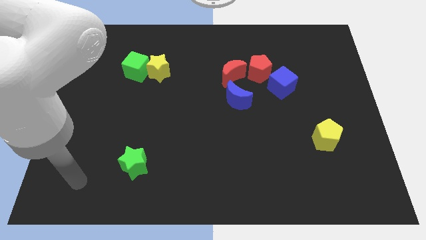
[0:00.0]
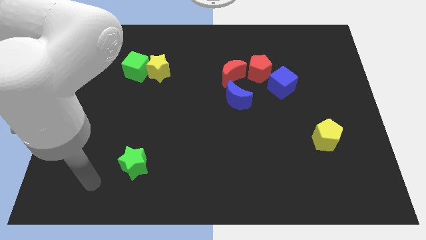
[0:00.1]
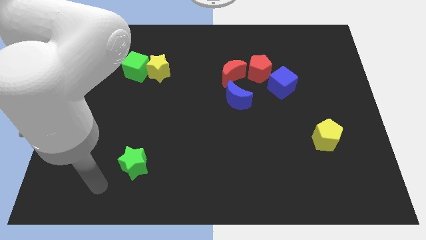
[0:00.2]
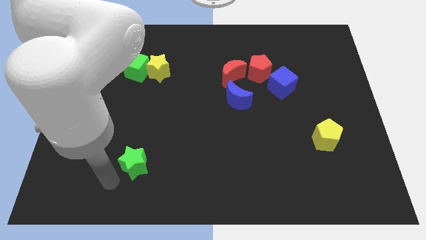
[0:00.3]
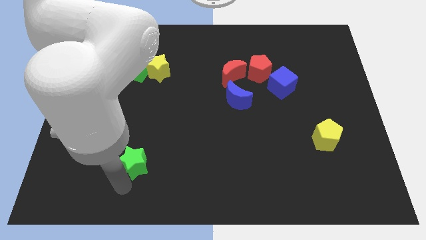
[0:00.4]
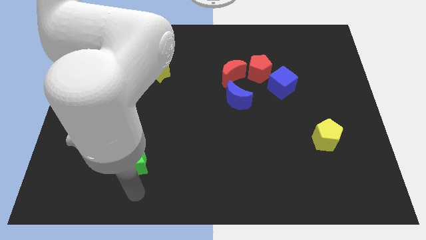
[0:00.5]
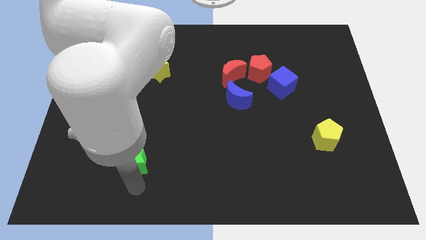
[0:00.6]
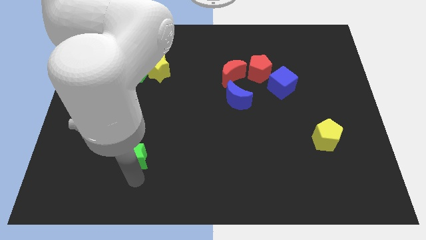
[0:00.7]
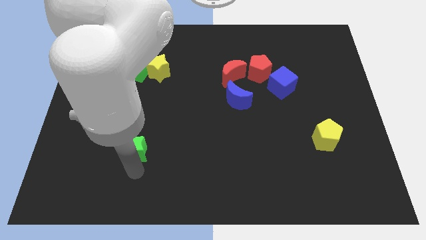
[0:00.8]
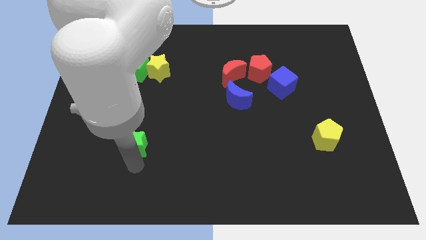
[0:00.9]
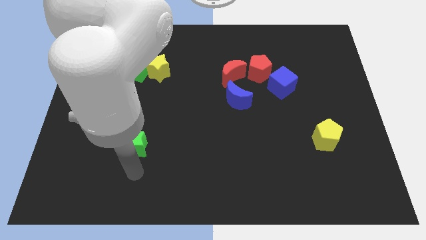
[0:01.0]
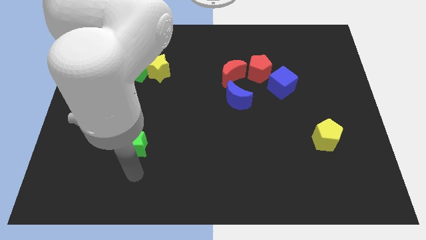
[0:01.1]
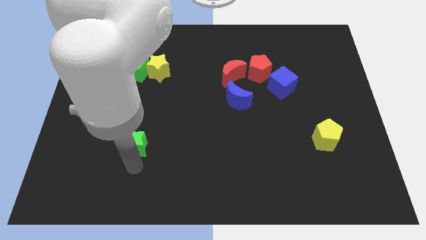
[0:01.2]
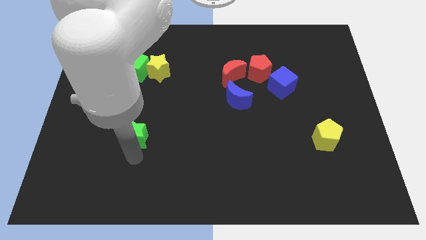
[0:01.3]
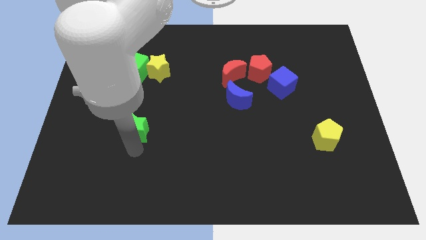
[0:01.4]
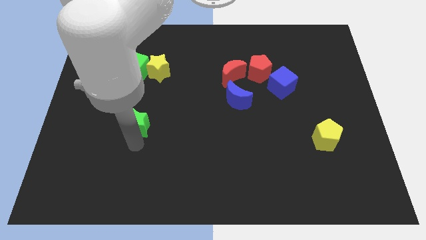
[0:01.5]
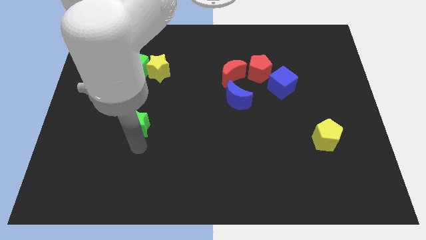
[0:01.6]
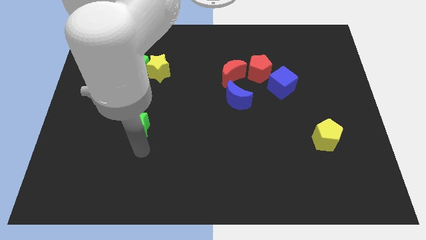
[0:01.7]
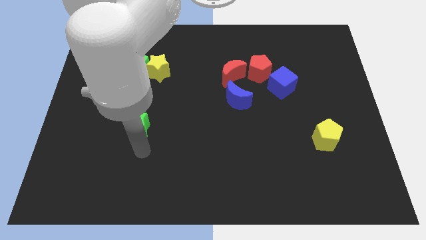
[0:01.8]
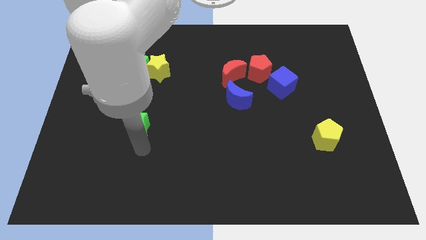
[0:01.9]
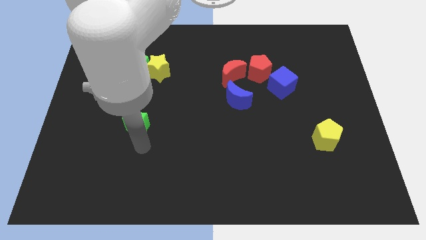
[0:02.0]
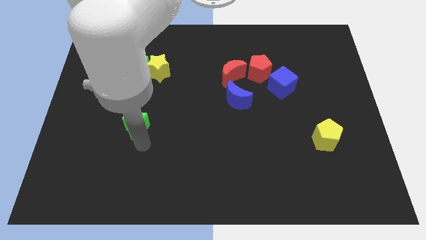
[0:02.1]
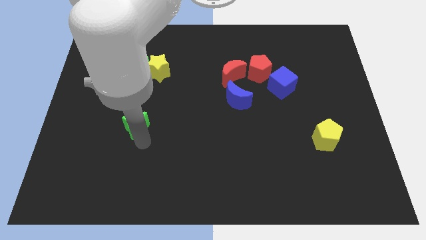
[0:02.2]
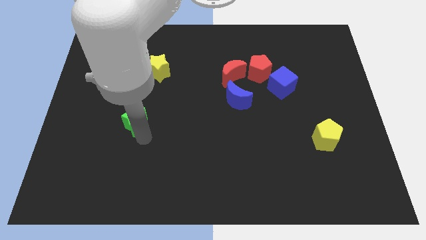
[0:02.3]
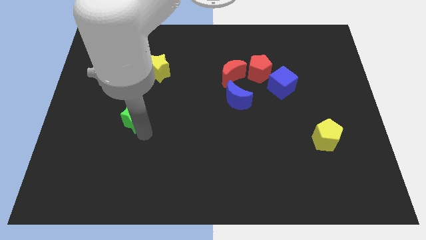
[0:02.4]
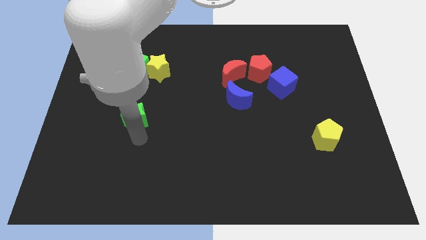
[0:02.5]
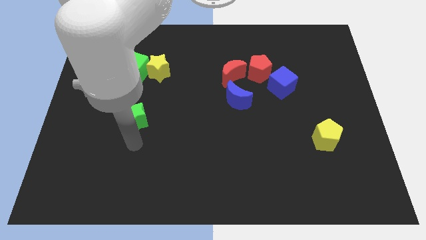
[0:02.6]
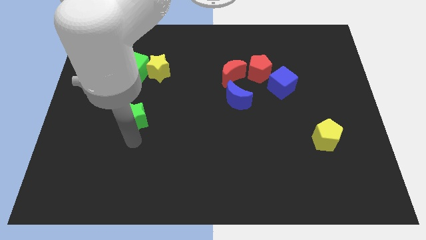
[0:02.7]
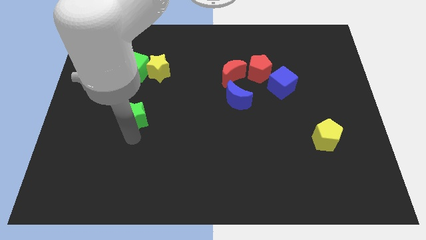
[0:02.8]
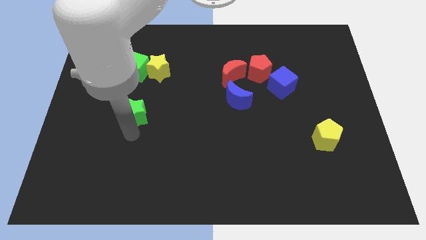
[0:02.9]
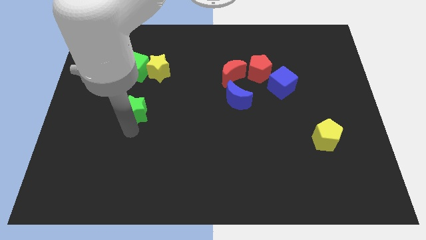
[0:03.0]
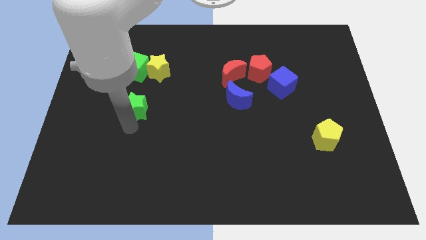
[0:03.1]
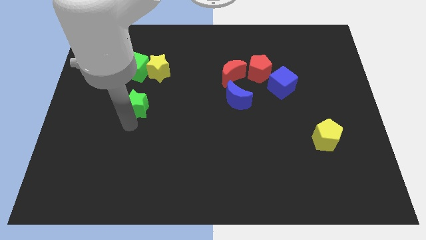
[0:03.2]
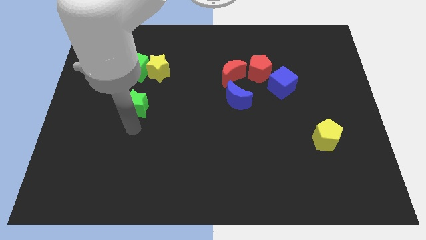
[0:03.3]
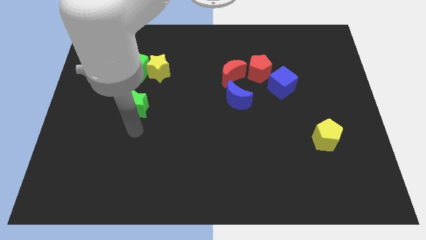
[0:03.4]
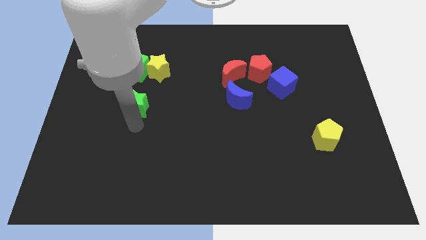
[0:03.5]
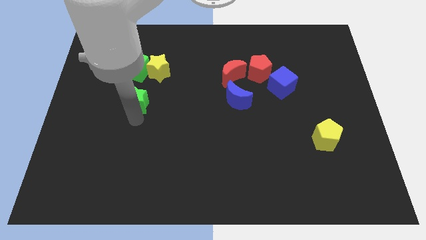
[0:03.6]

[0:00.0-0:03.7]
push the green star to the bottom left side of the yellow star

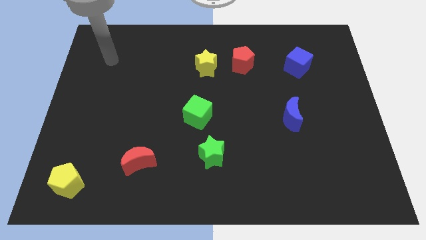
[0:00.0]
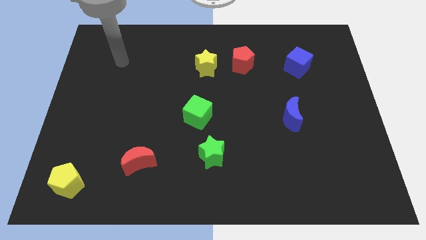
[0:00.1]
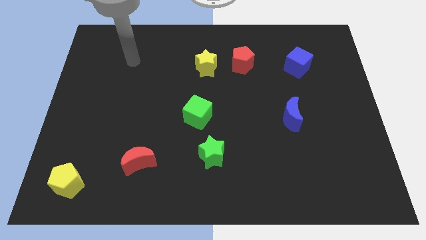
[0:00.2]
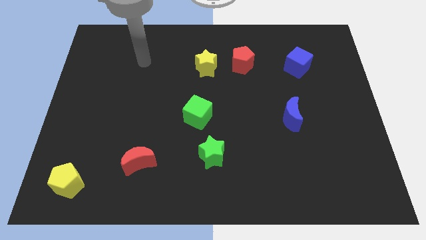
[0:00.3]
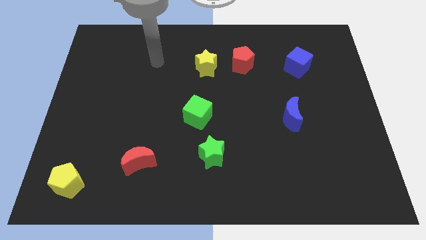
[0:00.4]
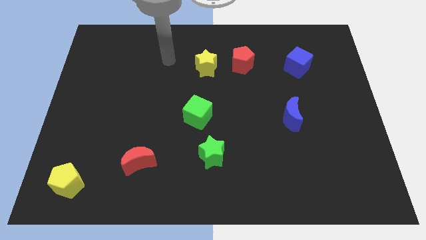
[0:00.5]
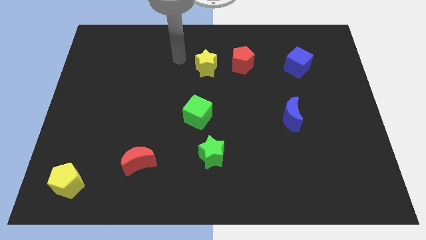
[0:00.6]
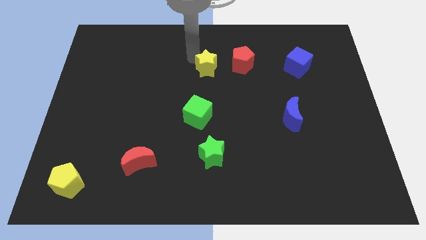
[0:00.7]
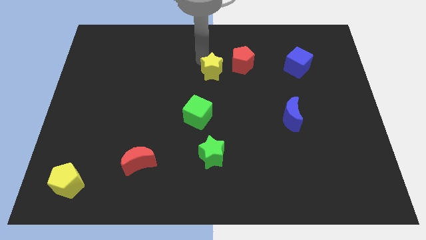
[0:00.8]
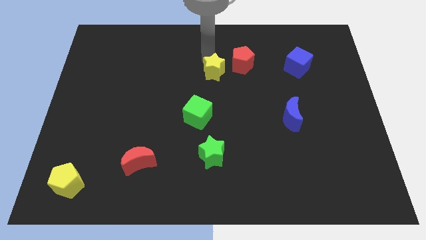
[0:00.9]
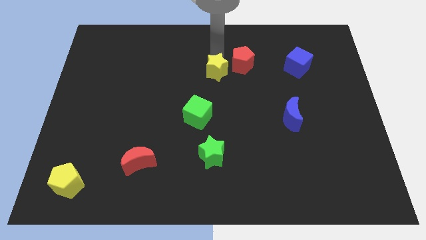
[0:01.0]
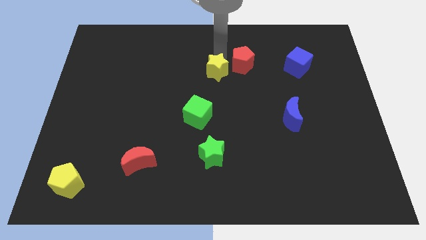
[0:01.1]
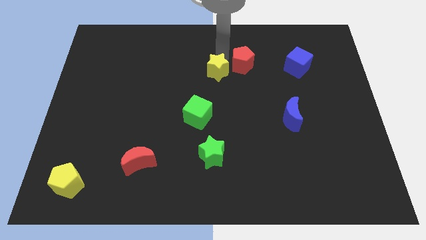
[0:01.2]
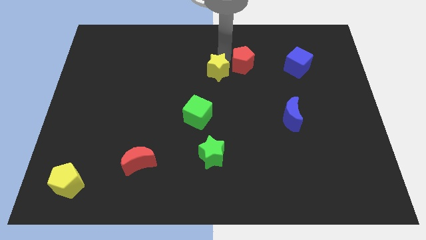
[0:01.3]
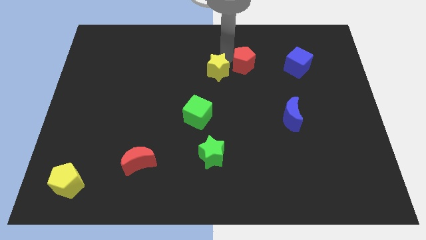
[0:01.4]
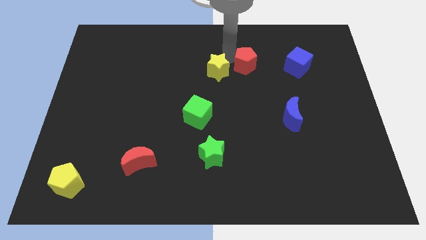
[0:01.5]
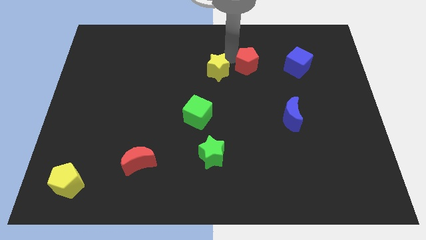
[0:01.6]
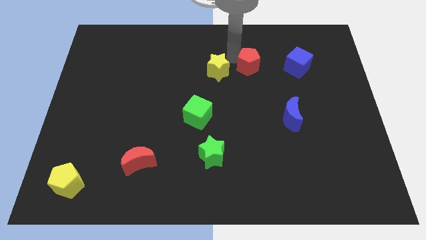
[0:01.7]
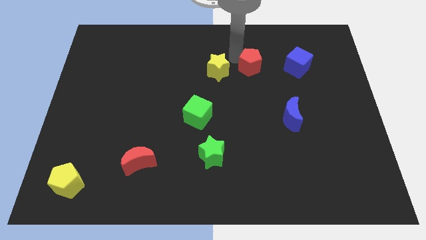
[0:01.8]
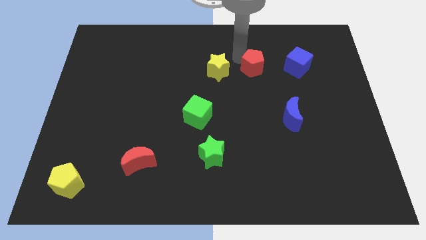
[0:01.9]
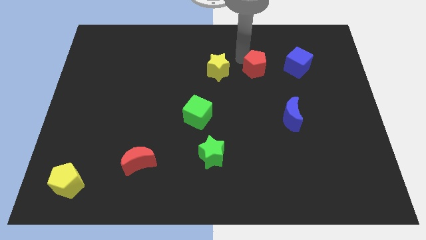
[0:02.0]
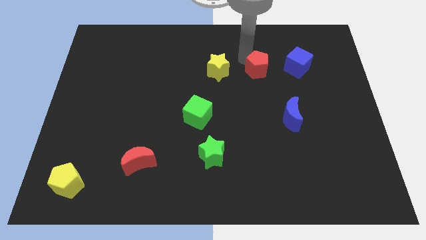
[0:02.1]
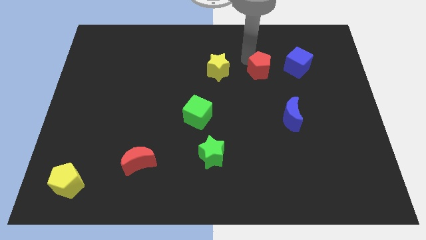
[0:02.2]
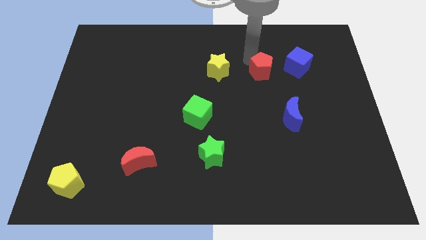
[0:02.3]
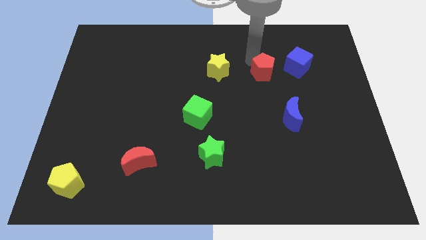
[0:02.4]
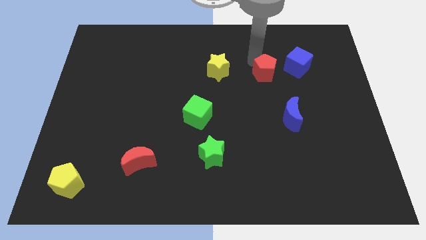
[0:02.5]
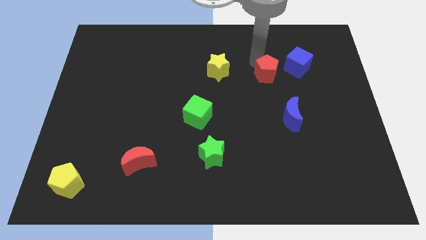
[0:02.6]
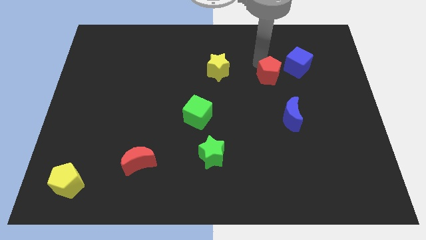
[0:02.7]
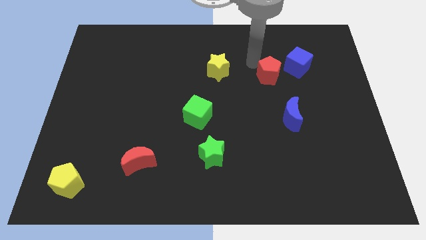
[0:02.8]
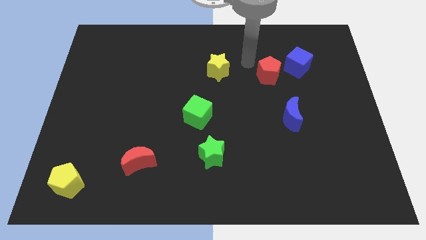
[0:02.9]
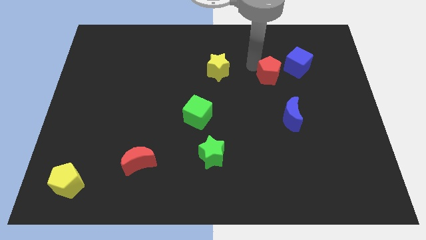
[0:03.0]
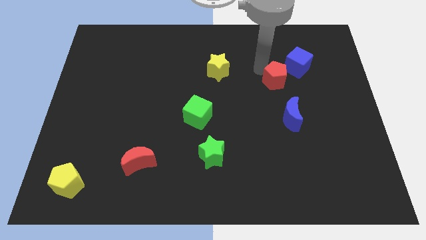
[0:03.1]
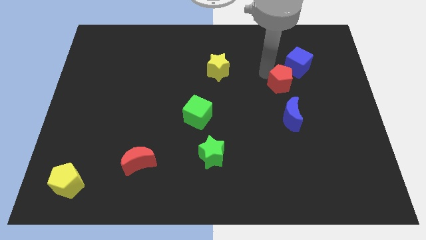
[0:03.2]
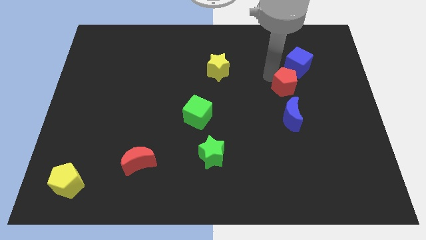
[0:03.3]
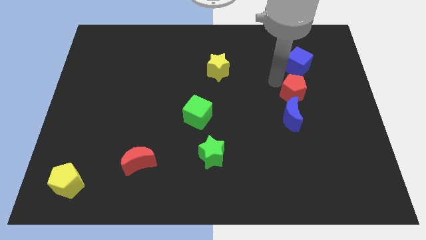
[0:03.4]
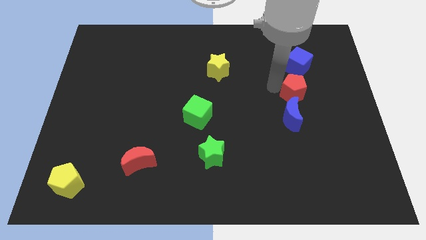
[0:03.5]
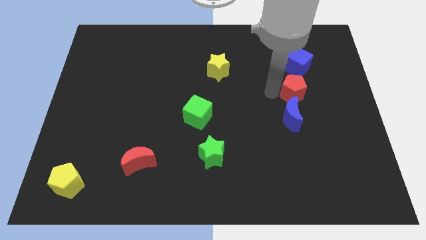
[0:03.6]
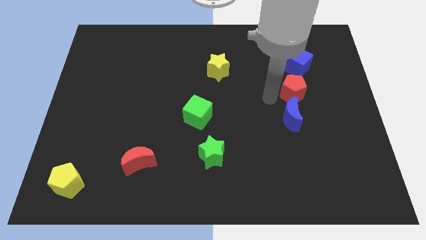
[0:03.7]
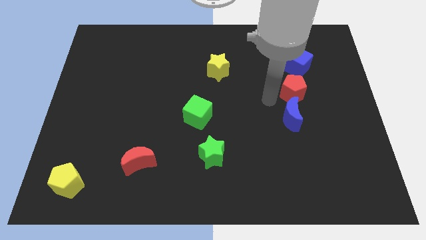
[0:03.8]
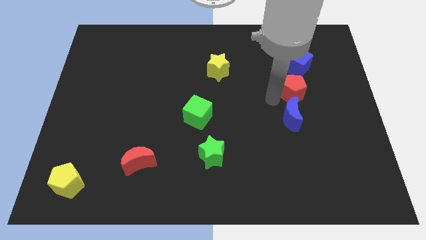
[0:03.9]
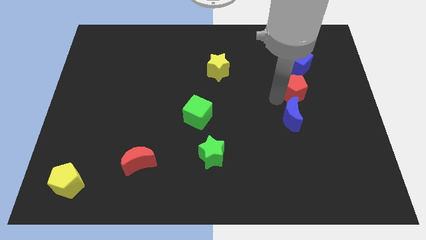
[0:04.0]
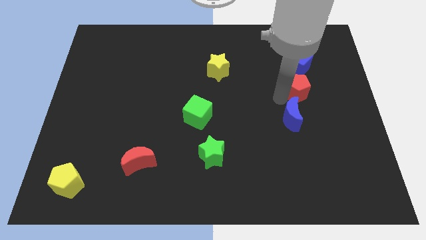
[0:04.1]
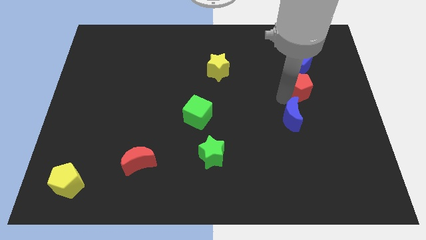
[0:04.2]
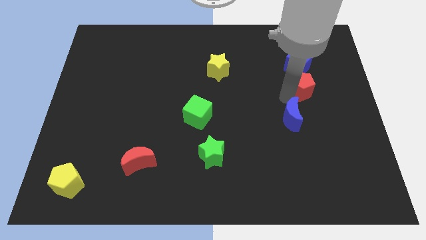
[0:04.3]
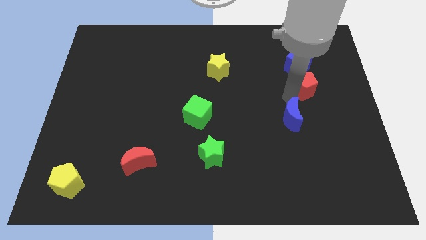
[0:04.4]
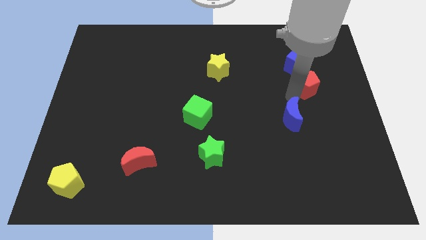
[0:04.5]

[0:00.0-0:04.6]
push the red pentagon diagonally down and to the right of the blue cube
